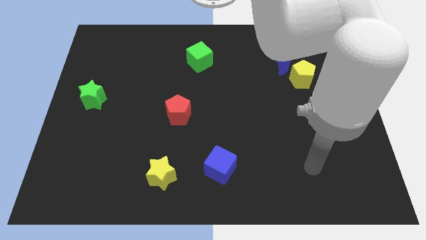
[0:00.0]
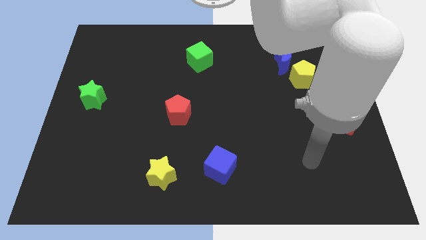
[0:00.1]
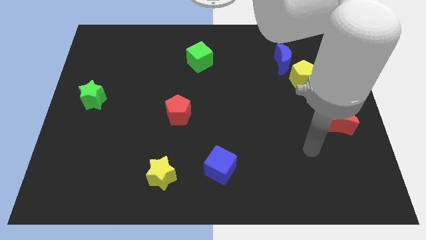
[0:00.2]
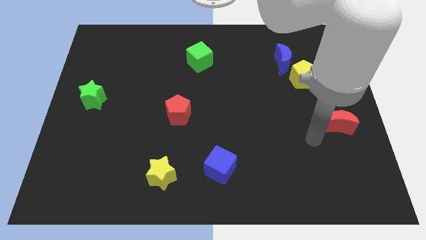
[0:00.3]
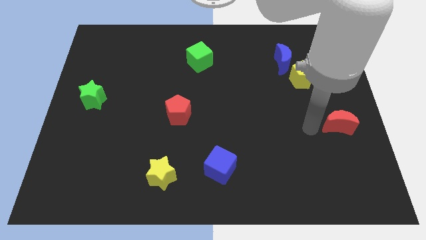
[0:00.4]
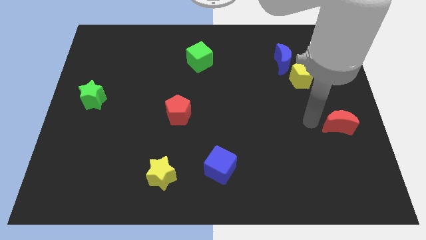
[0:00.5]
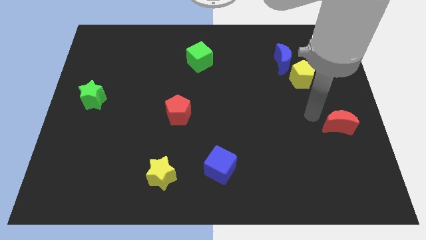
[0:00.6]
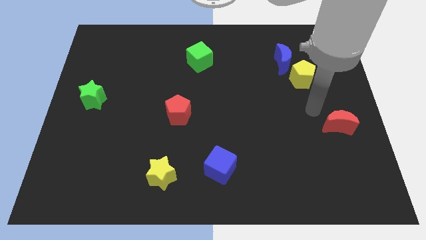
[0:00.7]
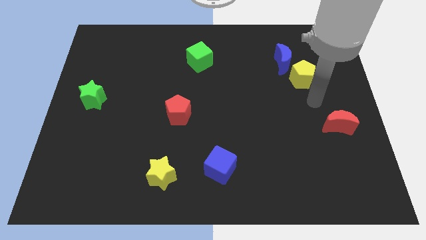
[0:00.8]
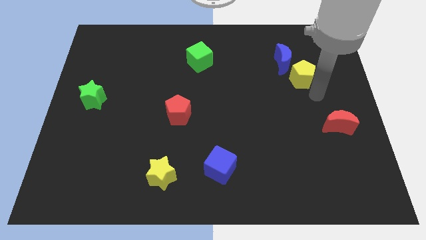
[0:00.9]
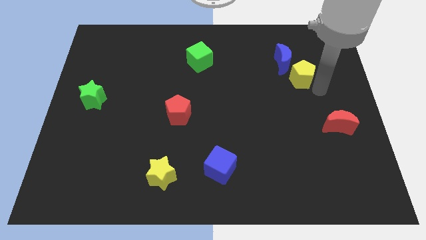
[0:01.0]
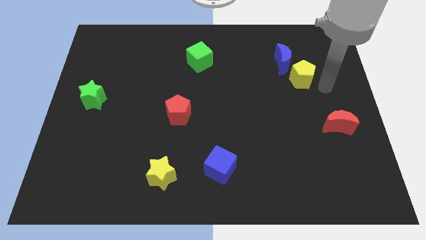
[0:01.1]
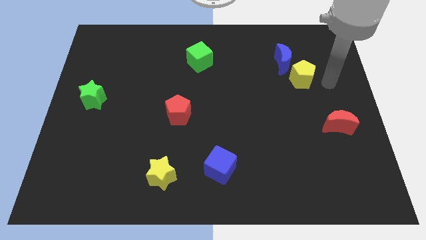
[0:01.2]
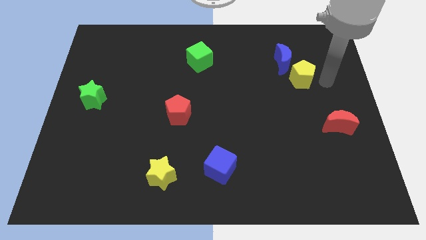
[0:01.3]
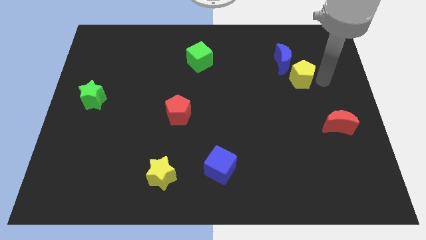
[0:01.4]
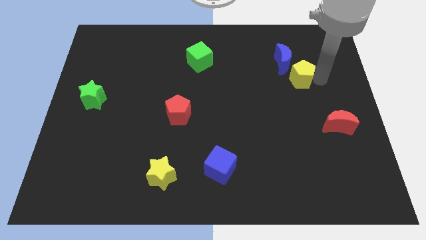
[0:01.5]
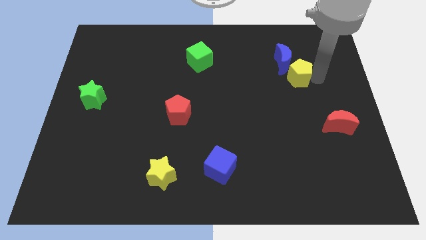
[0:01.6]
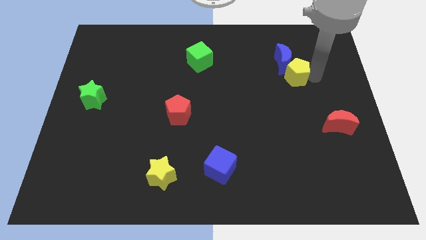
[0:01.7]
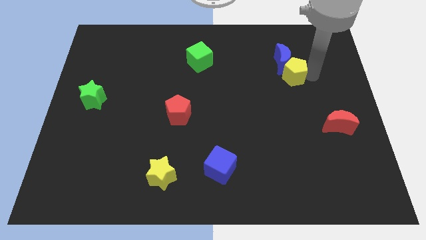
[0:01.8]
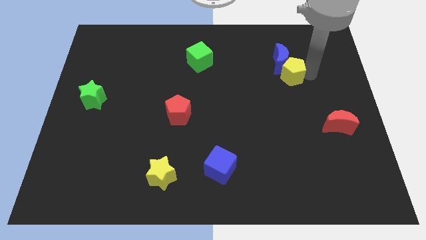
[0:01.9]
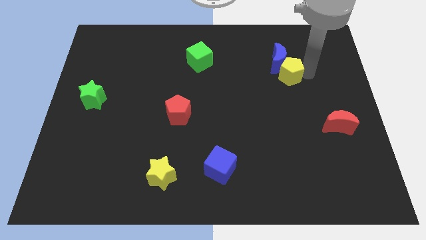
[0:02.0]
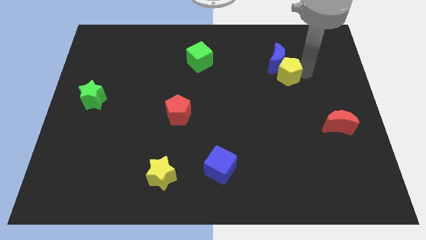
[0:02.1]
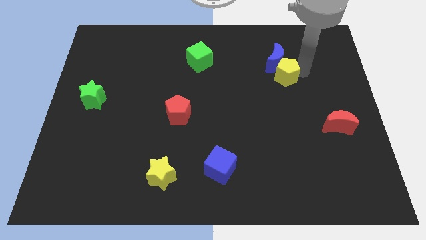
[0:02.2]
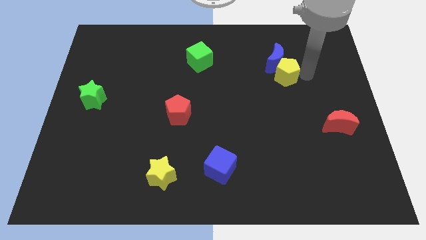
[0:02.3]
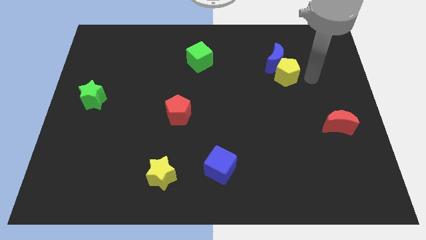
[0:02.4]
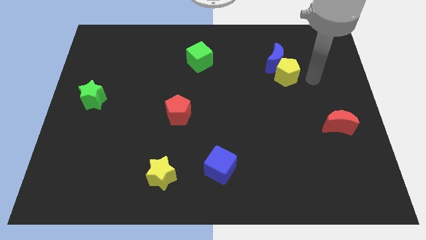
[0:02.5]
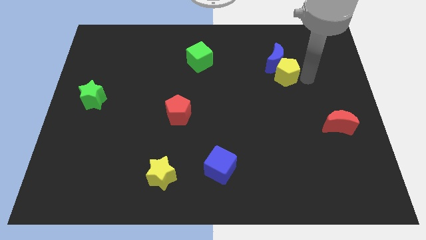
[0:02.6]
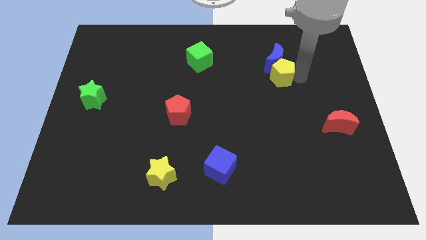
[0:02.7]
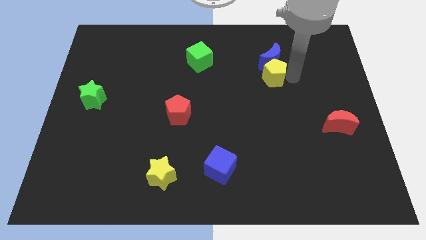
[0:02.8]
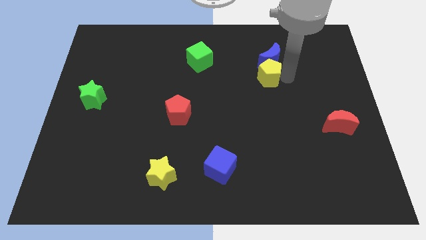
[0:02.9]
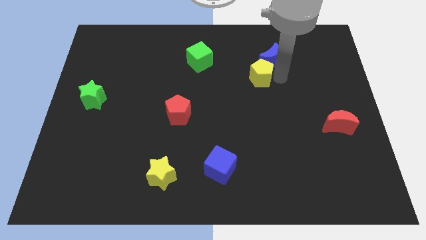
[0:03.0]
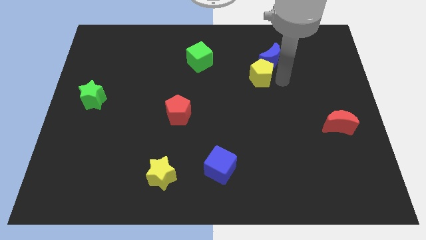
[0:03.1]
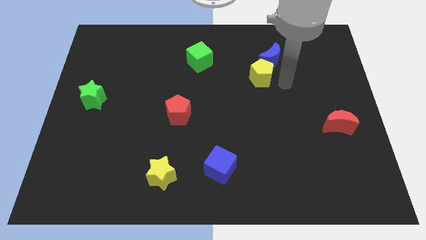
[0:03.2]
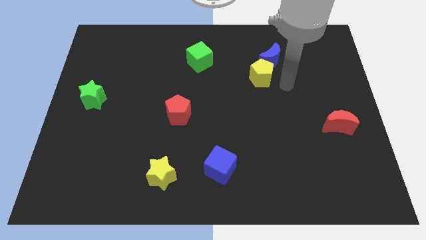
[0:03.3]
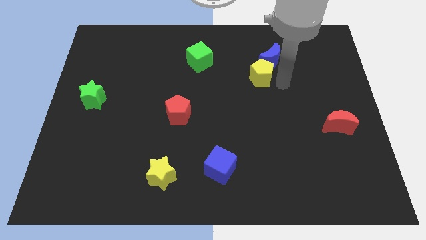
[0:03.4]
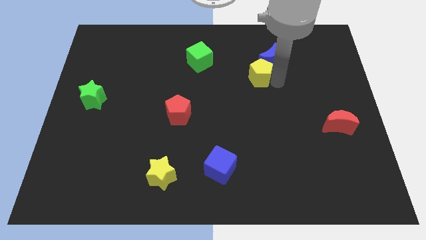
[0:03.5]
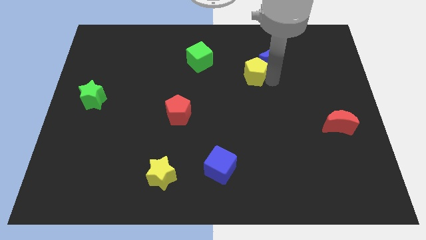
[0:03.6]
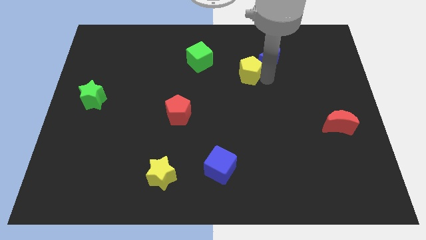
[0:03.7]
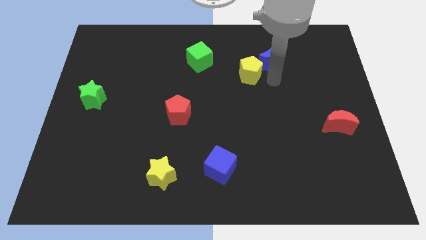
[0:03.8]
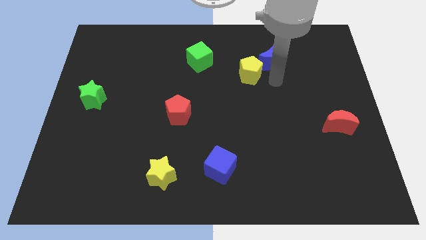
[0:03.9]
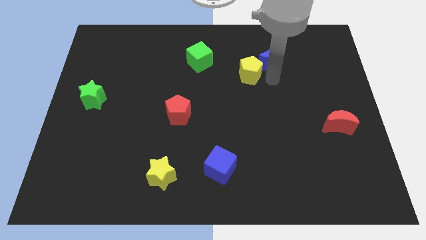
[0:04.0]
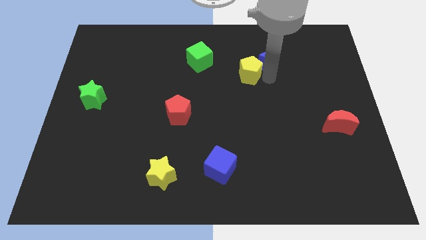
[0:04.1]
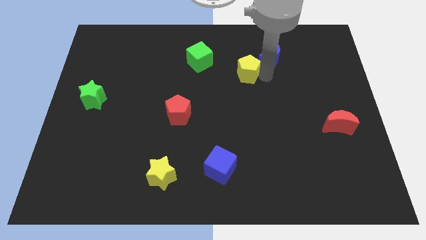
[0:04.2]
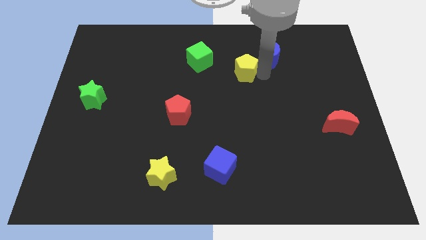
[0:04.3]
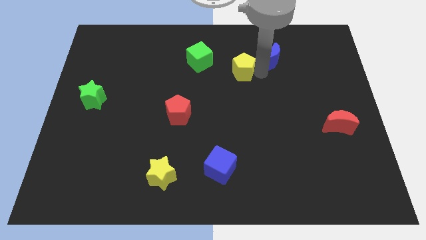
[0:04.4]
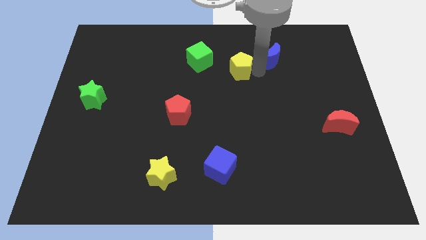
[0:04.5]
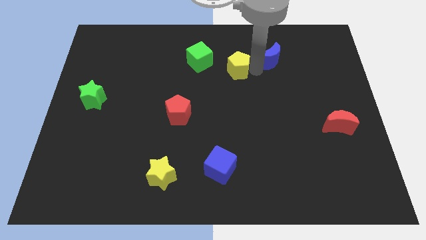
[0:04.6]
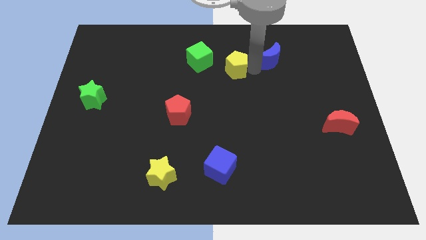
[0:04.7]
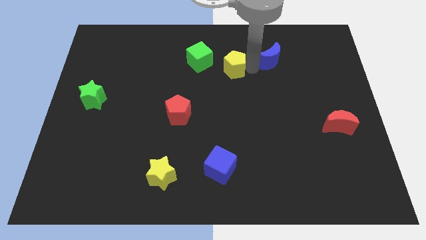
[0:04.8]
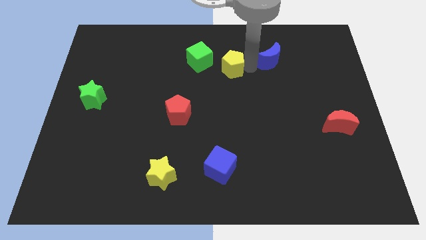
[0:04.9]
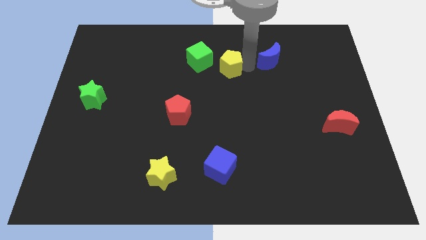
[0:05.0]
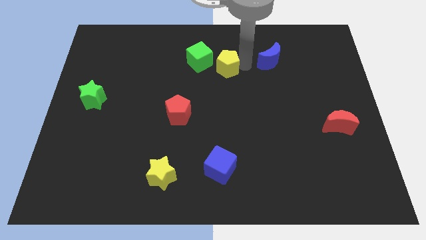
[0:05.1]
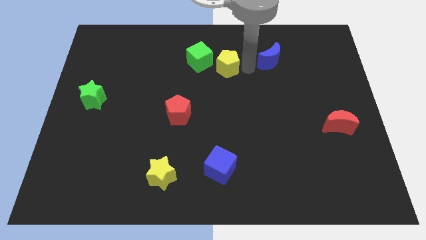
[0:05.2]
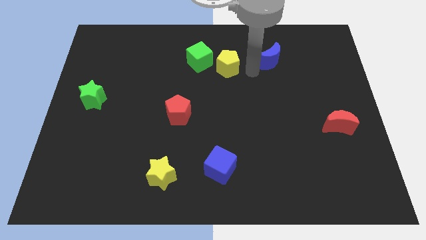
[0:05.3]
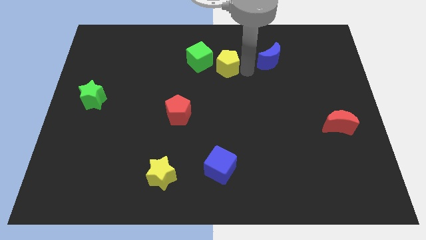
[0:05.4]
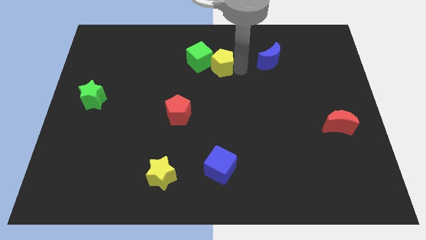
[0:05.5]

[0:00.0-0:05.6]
slide the yellow pentagon next to the green cube

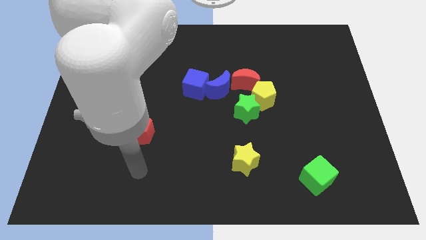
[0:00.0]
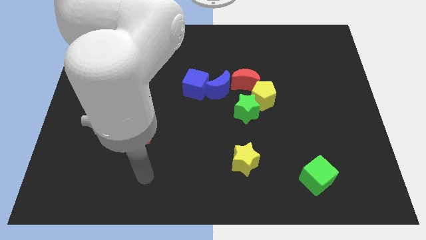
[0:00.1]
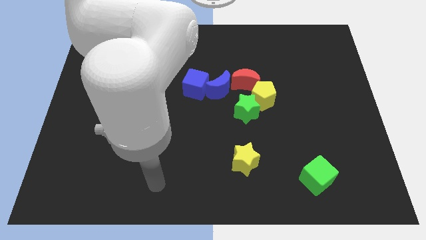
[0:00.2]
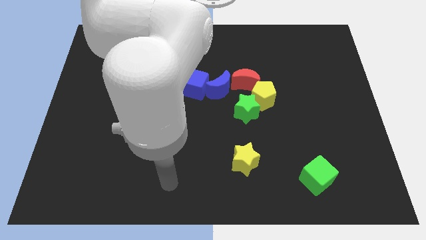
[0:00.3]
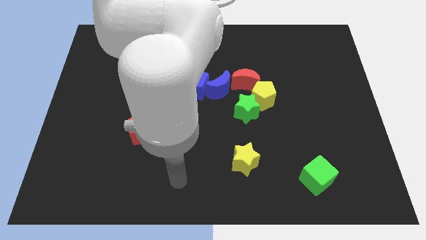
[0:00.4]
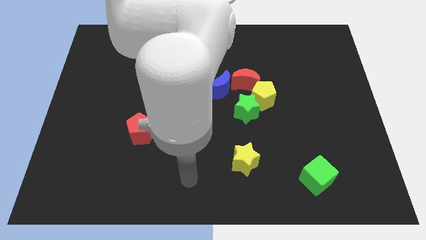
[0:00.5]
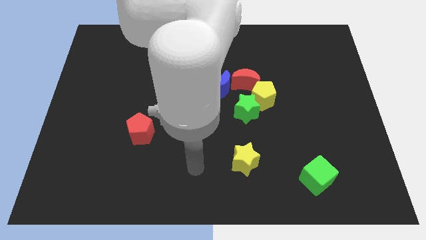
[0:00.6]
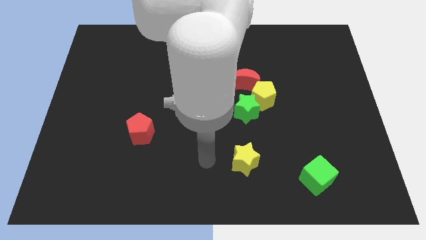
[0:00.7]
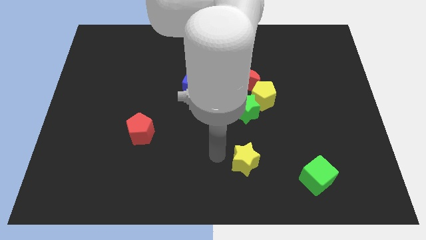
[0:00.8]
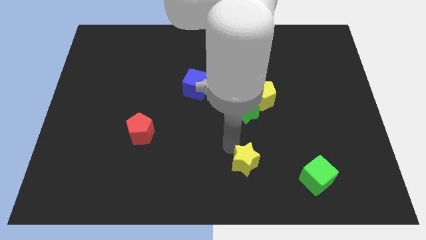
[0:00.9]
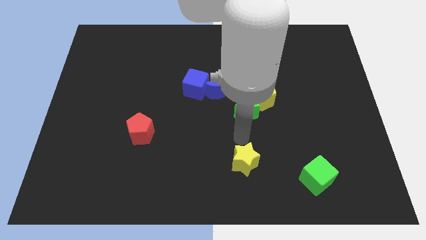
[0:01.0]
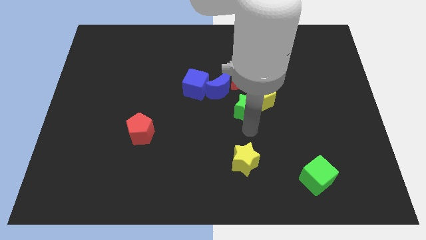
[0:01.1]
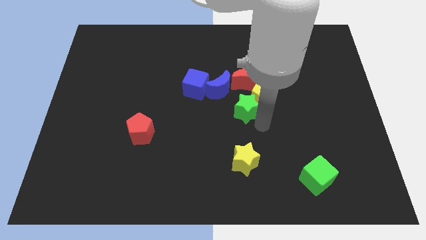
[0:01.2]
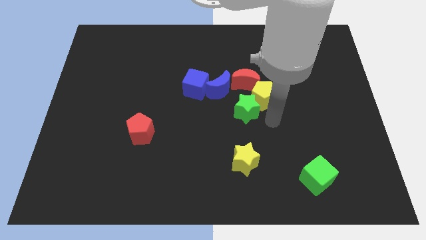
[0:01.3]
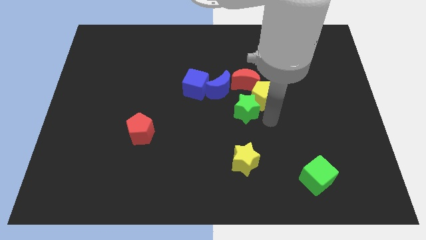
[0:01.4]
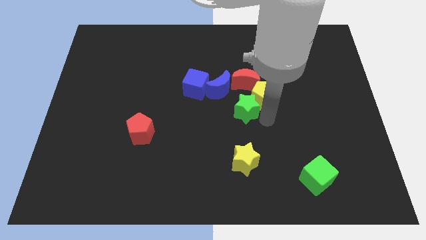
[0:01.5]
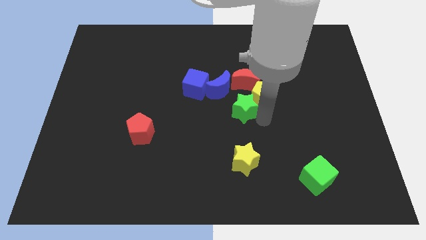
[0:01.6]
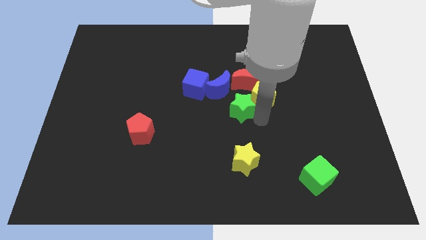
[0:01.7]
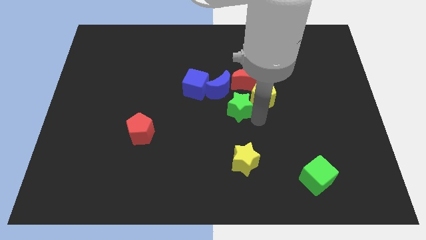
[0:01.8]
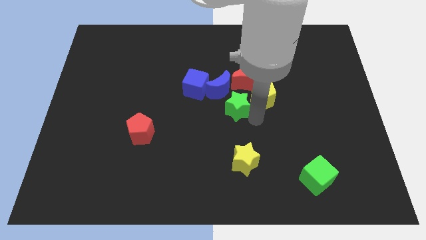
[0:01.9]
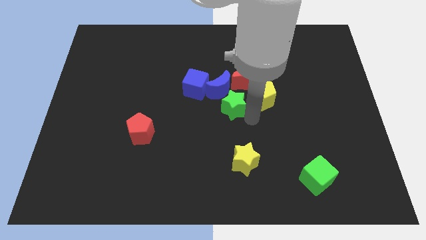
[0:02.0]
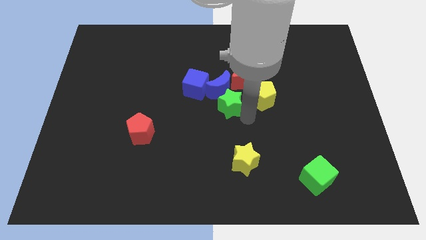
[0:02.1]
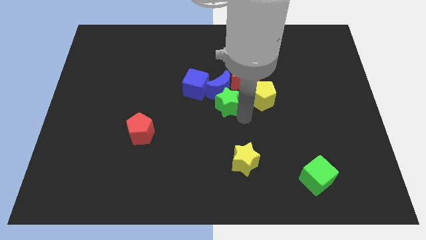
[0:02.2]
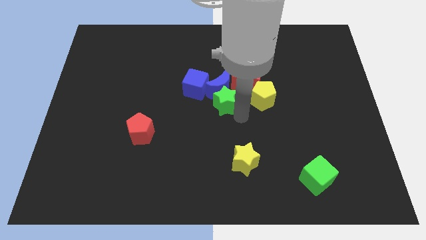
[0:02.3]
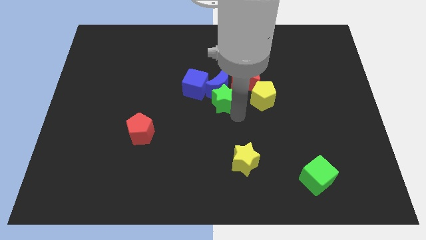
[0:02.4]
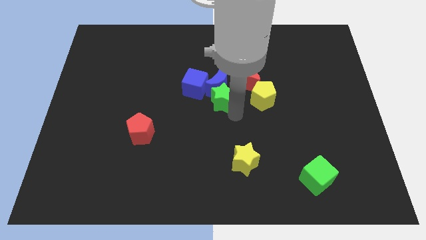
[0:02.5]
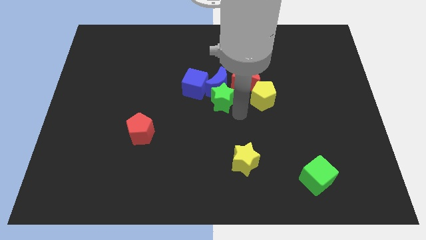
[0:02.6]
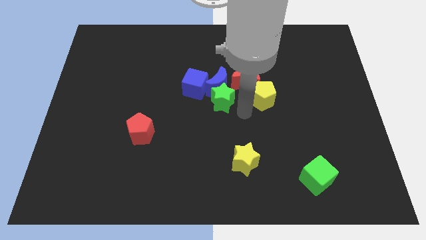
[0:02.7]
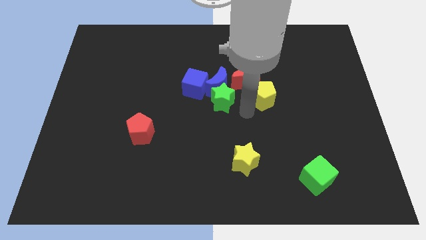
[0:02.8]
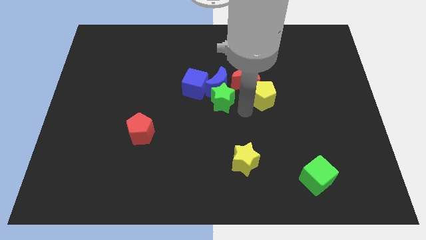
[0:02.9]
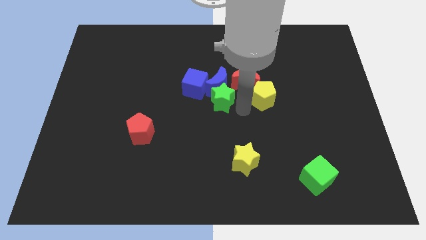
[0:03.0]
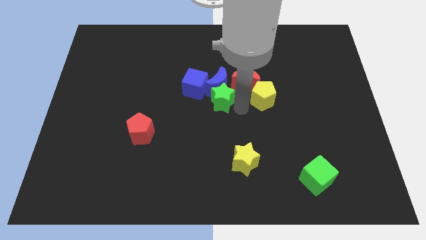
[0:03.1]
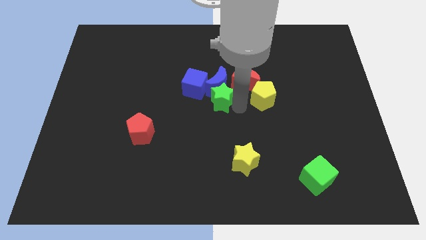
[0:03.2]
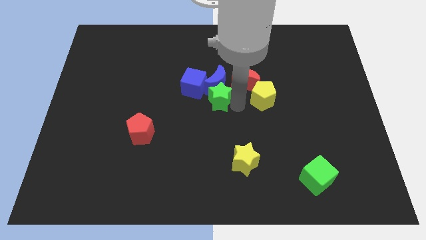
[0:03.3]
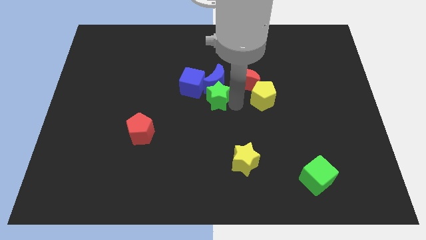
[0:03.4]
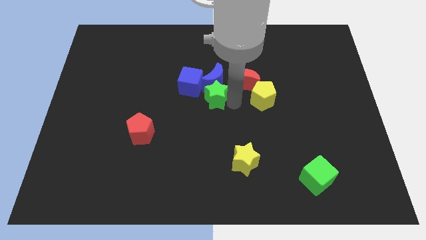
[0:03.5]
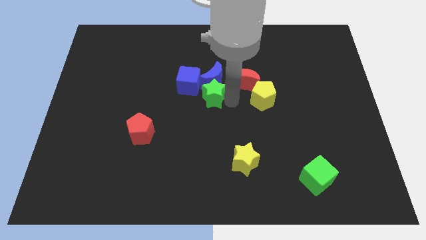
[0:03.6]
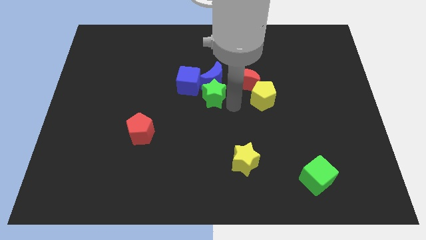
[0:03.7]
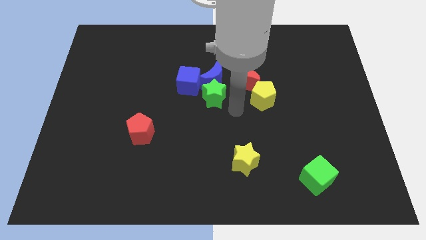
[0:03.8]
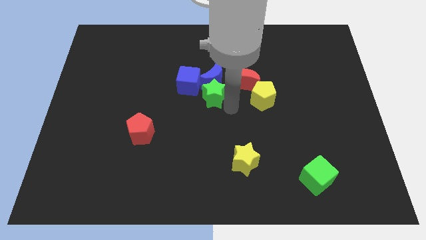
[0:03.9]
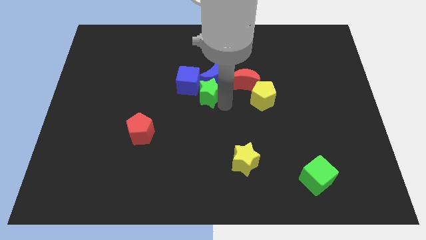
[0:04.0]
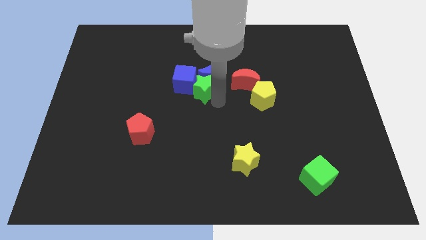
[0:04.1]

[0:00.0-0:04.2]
move the green star towards the blue cube
